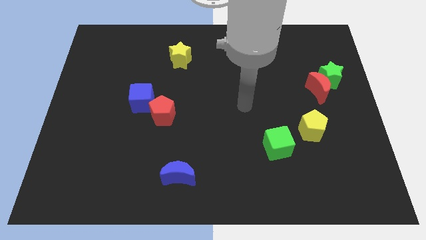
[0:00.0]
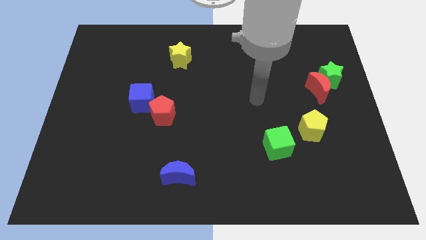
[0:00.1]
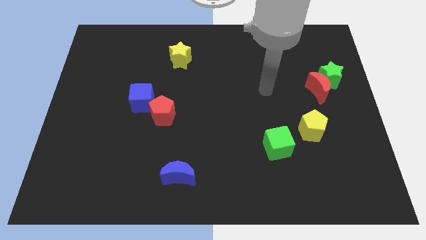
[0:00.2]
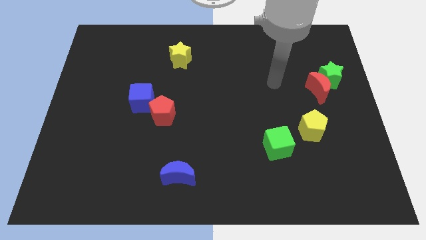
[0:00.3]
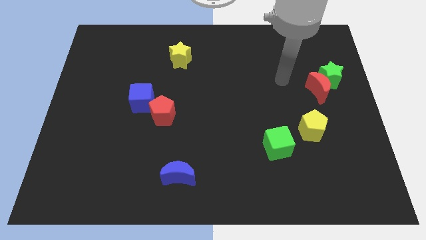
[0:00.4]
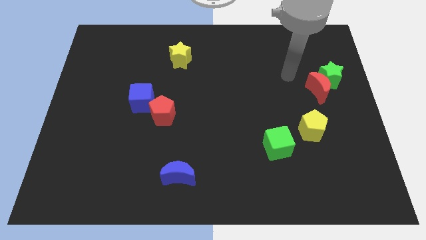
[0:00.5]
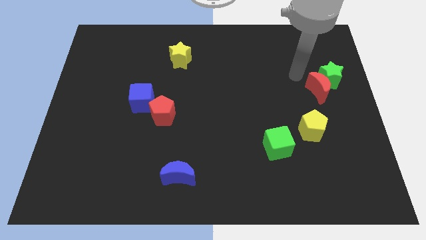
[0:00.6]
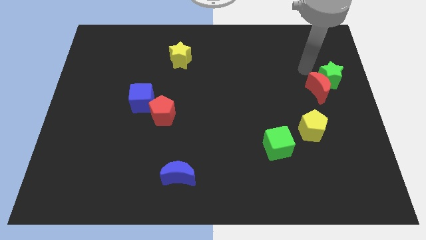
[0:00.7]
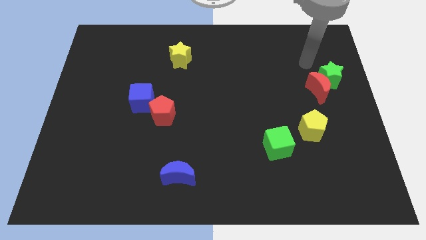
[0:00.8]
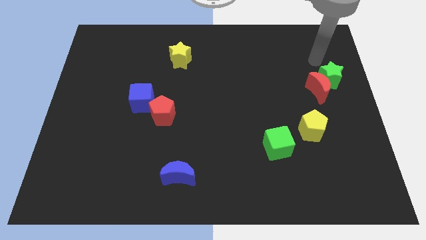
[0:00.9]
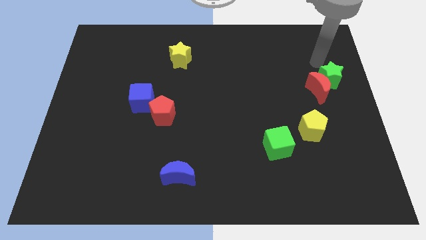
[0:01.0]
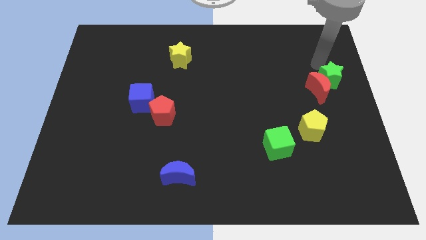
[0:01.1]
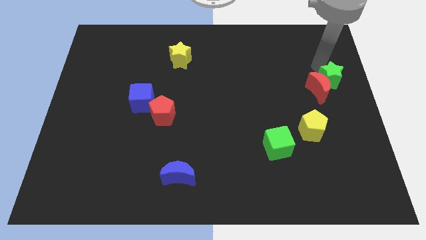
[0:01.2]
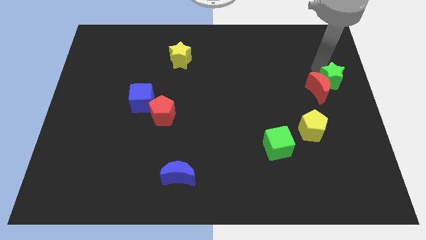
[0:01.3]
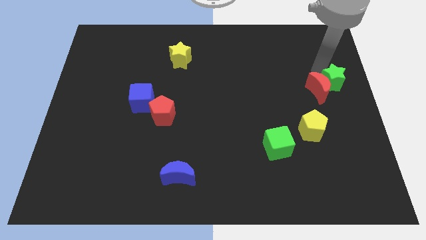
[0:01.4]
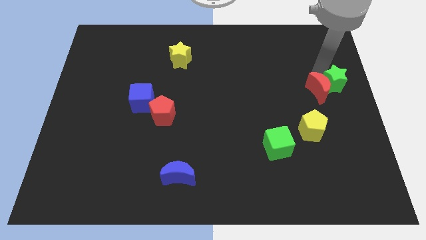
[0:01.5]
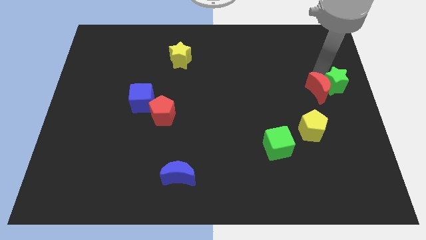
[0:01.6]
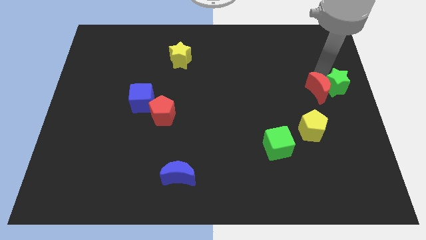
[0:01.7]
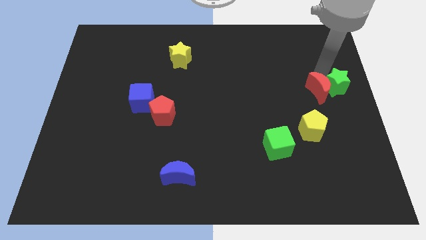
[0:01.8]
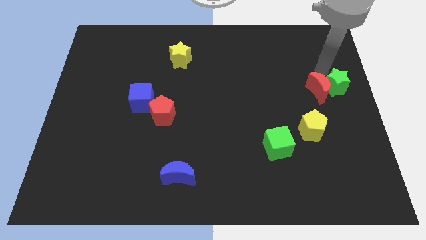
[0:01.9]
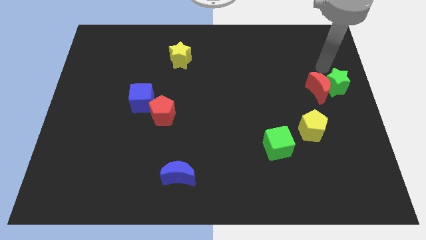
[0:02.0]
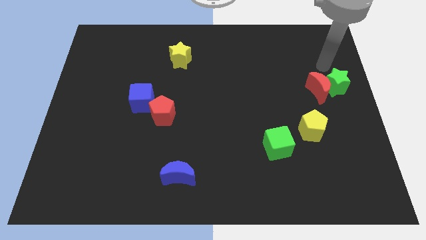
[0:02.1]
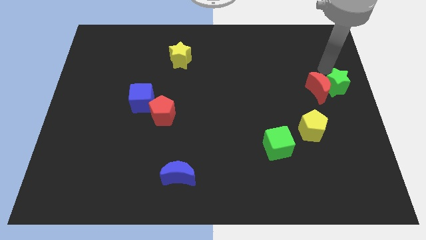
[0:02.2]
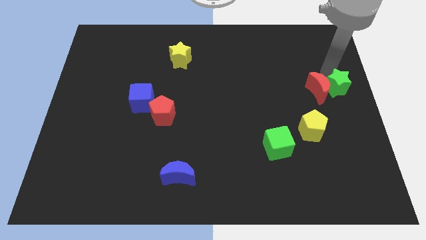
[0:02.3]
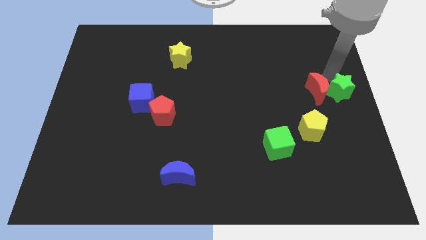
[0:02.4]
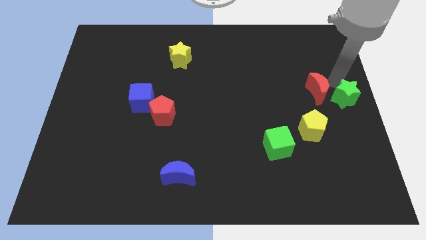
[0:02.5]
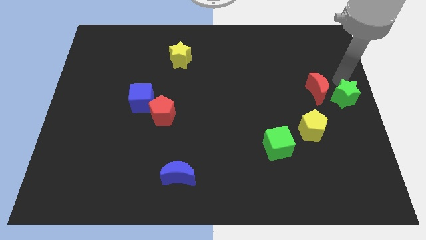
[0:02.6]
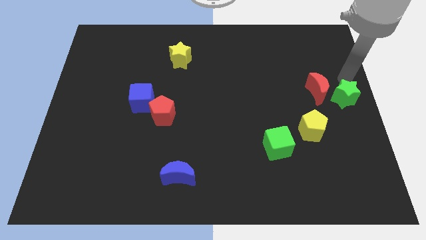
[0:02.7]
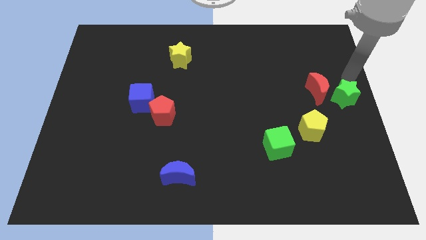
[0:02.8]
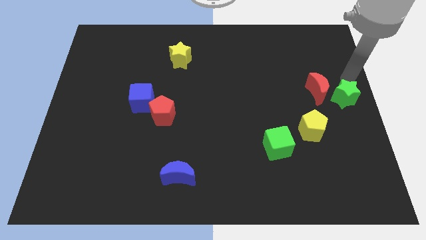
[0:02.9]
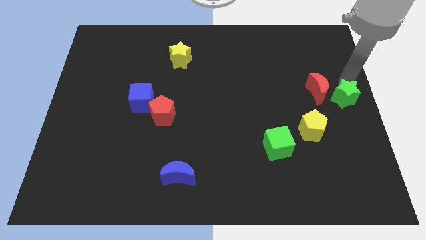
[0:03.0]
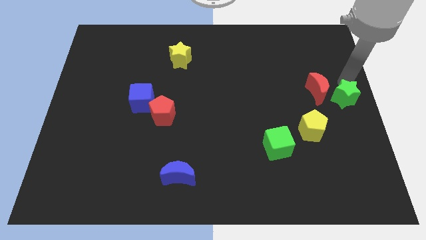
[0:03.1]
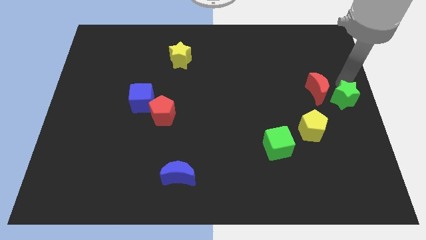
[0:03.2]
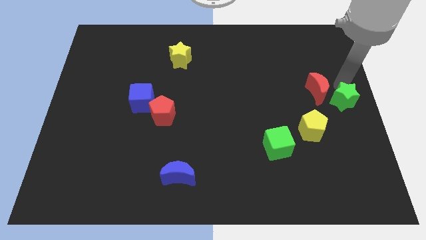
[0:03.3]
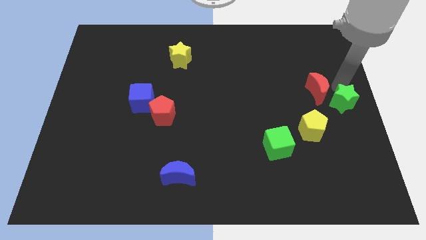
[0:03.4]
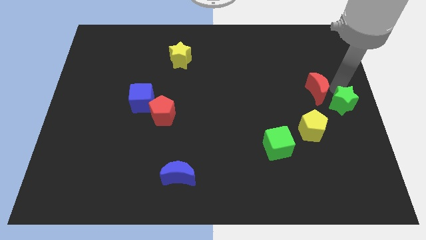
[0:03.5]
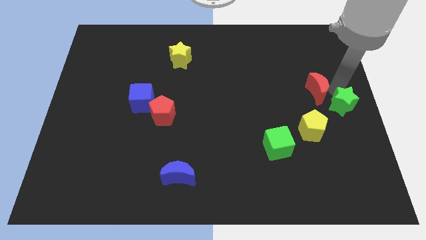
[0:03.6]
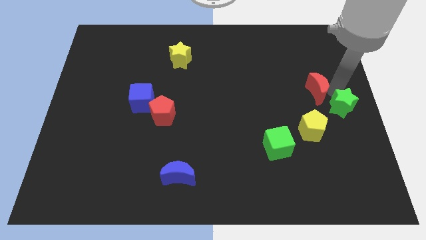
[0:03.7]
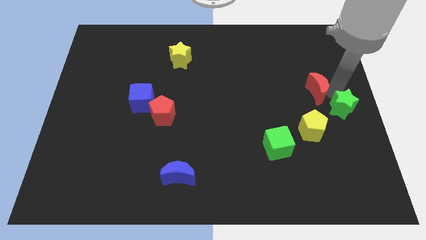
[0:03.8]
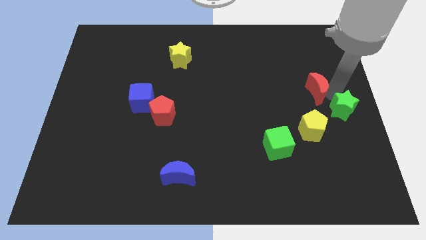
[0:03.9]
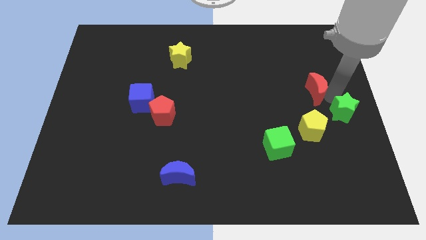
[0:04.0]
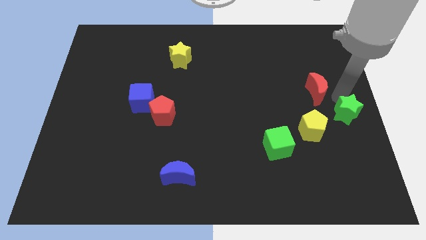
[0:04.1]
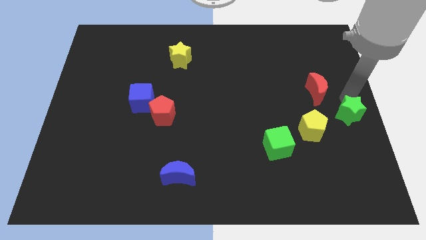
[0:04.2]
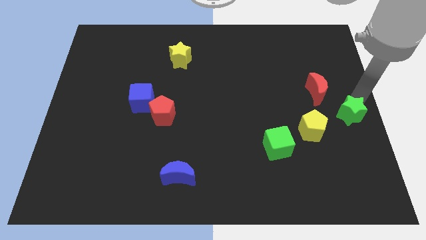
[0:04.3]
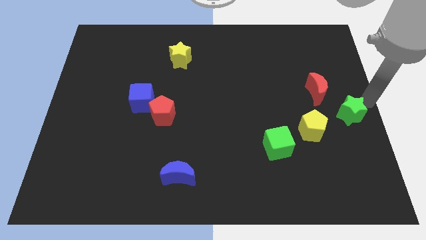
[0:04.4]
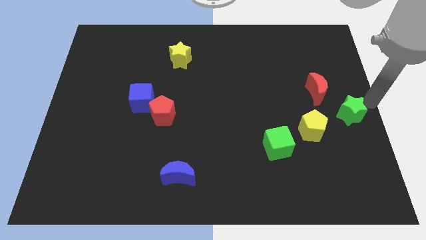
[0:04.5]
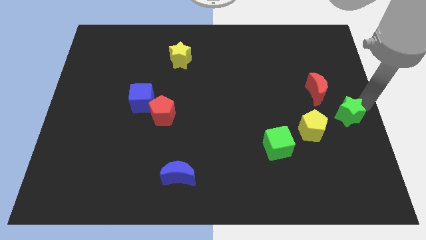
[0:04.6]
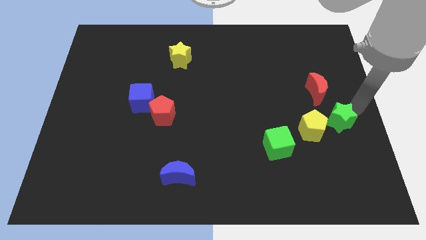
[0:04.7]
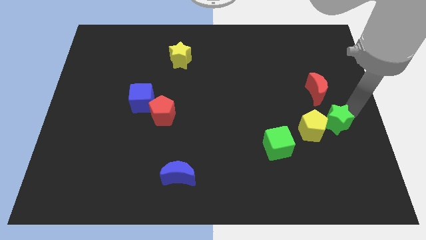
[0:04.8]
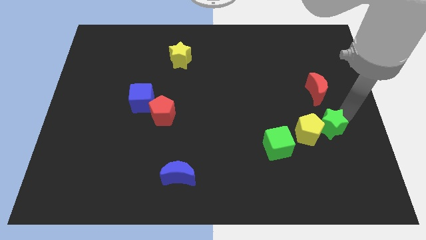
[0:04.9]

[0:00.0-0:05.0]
push the green star close to the yellow pentagon

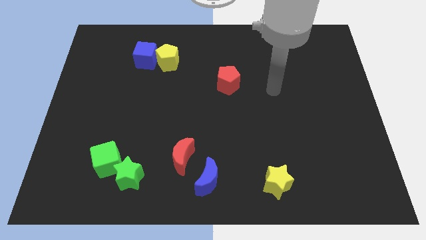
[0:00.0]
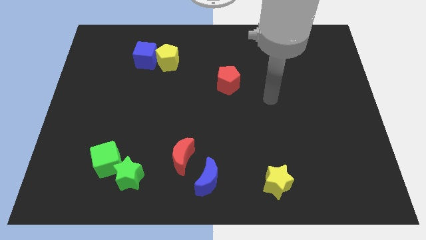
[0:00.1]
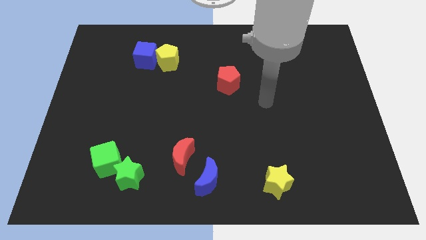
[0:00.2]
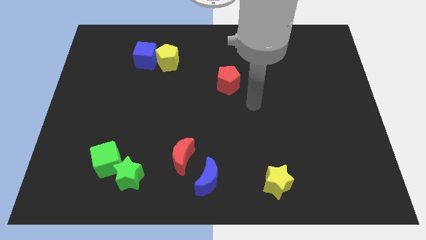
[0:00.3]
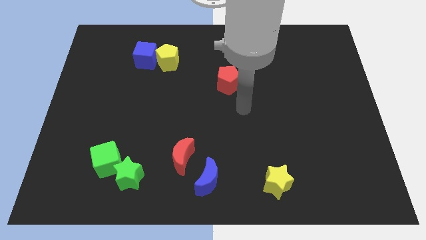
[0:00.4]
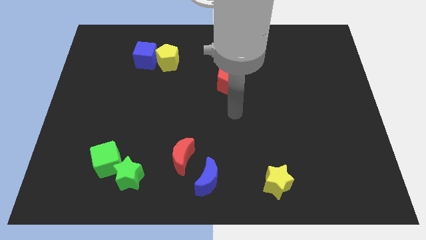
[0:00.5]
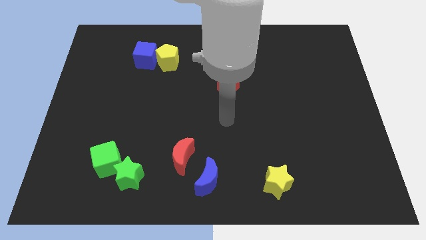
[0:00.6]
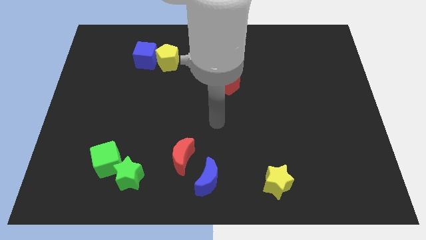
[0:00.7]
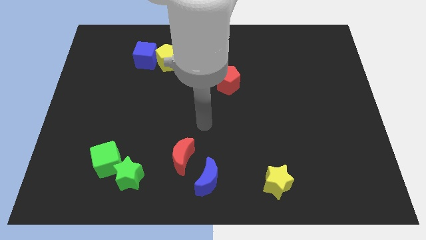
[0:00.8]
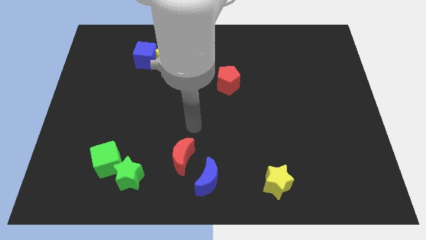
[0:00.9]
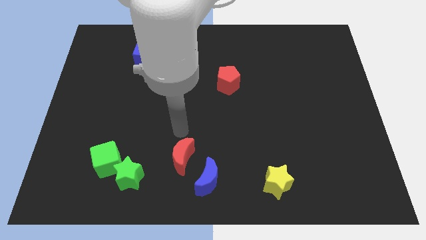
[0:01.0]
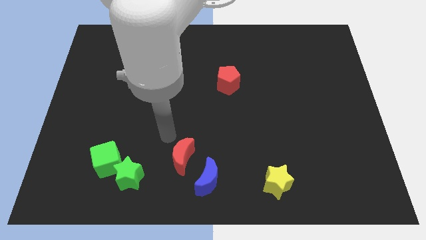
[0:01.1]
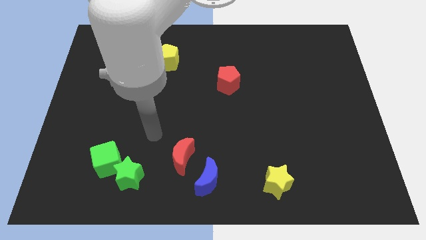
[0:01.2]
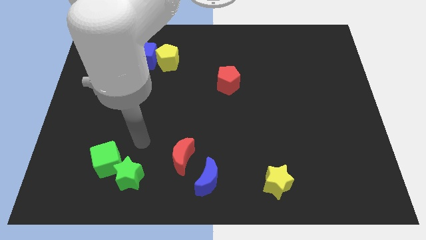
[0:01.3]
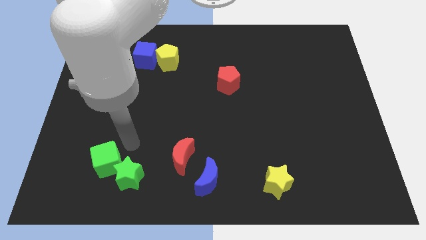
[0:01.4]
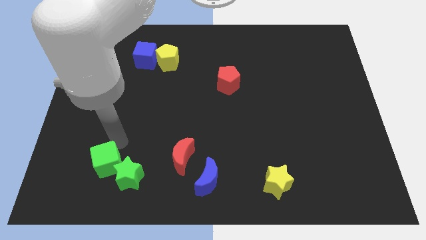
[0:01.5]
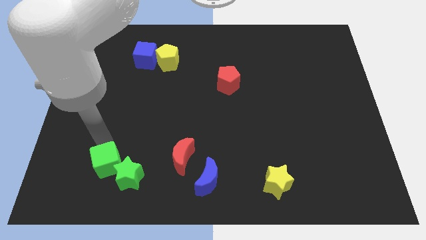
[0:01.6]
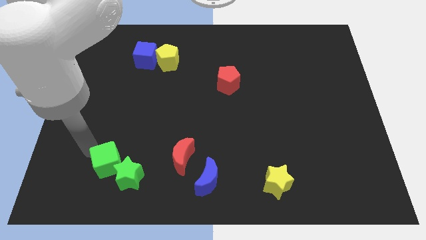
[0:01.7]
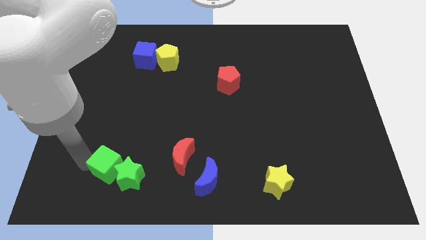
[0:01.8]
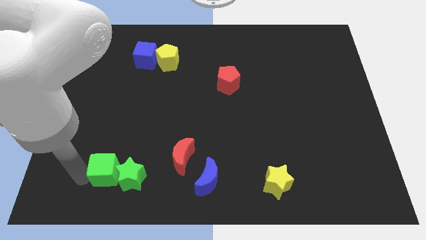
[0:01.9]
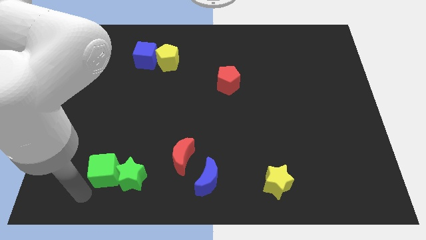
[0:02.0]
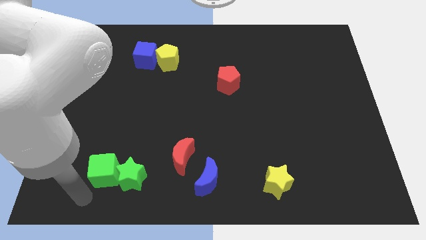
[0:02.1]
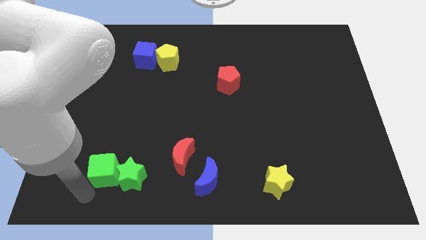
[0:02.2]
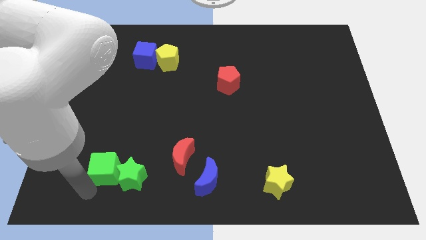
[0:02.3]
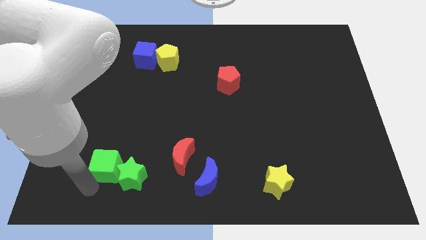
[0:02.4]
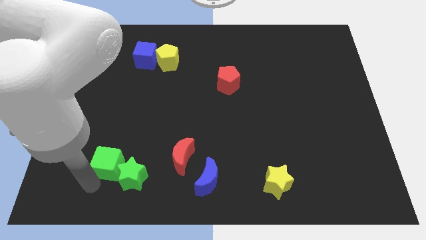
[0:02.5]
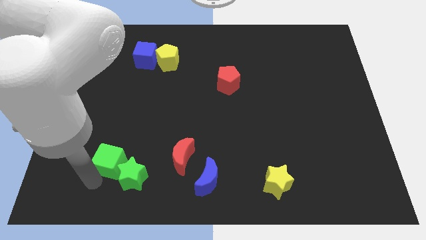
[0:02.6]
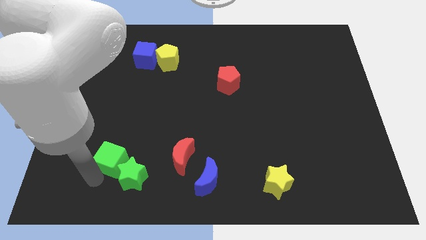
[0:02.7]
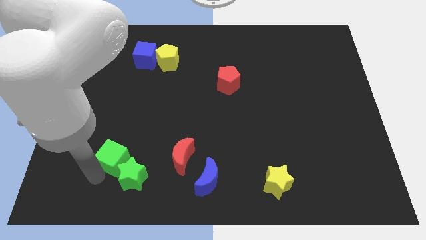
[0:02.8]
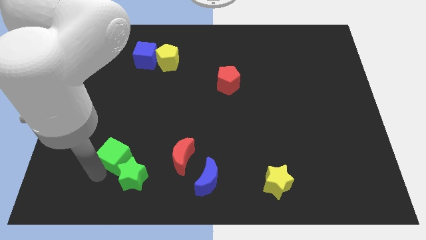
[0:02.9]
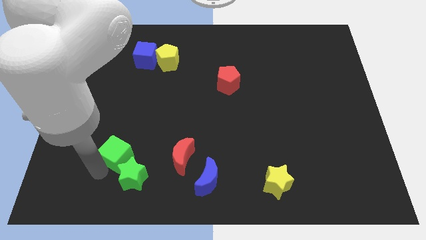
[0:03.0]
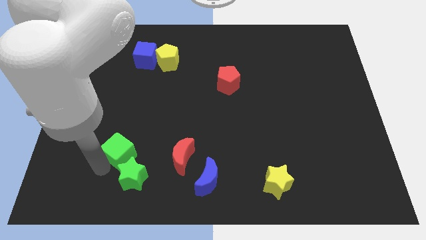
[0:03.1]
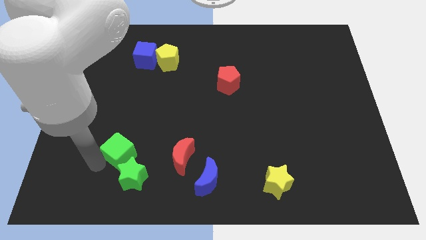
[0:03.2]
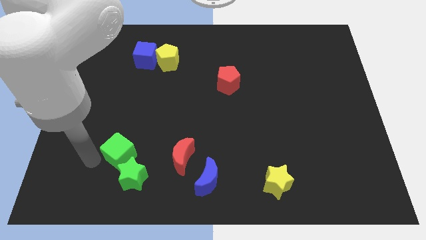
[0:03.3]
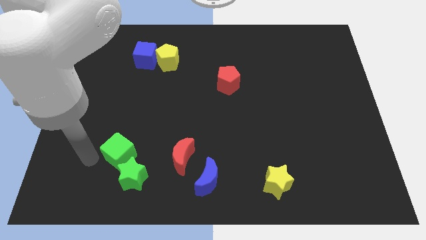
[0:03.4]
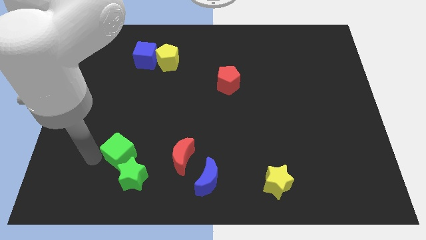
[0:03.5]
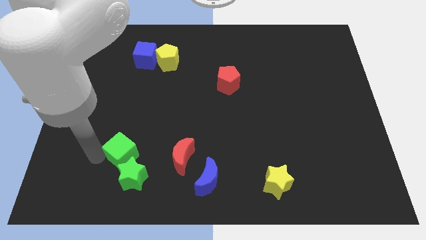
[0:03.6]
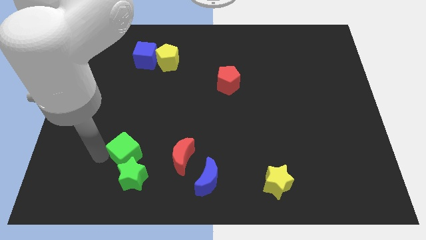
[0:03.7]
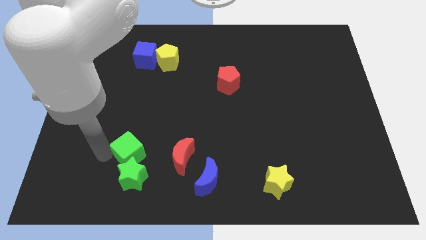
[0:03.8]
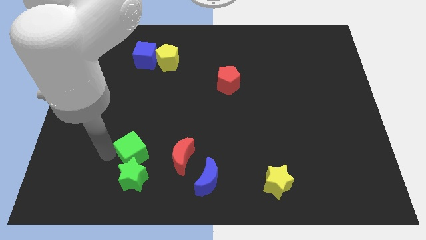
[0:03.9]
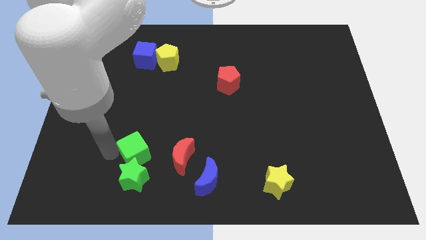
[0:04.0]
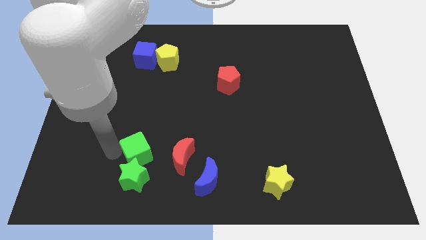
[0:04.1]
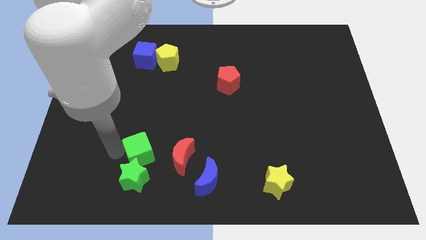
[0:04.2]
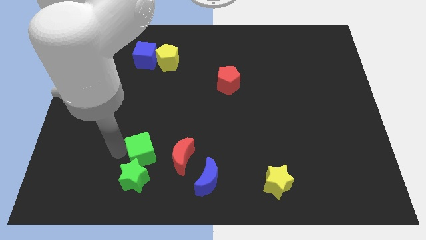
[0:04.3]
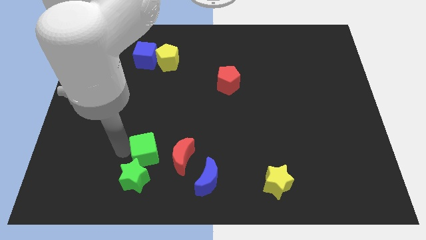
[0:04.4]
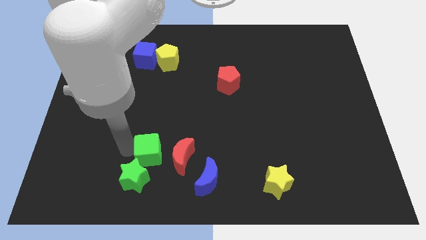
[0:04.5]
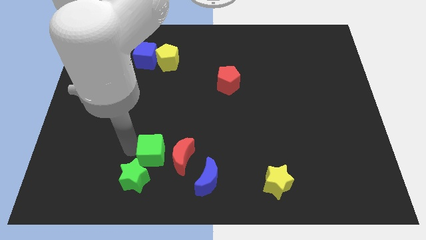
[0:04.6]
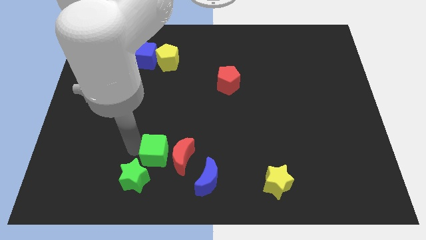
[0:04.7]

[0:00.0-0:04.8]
put the green cube towards the red moon
